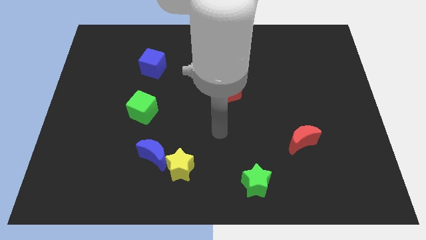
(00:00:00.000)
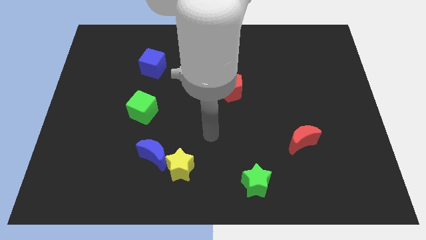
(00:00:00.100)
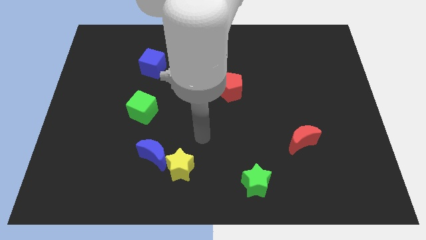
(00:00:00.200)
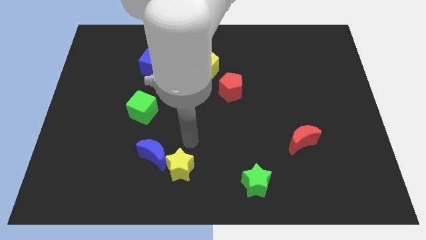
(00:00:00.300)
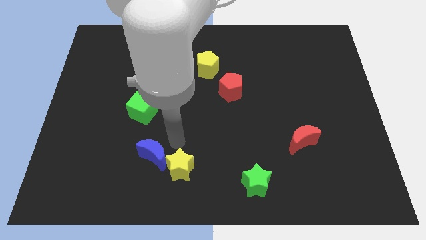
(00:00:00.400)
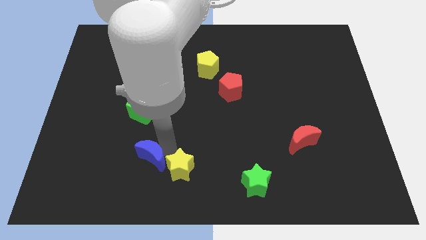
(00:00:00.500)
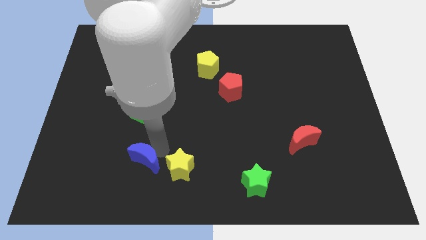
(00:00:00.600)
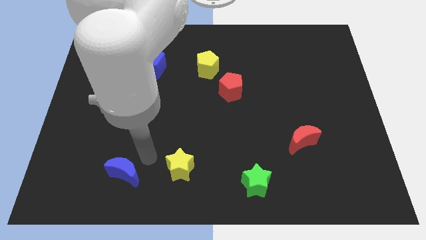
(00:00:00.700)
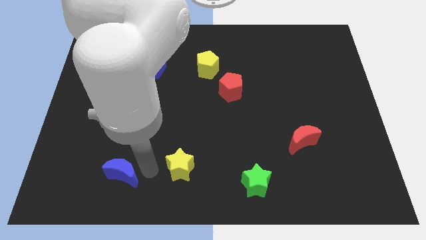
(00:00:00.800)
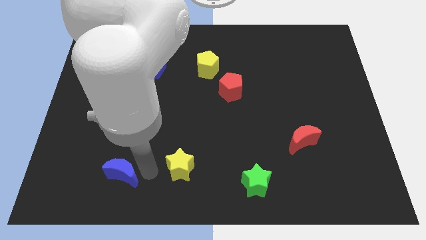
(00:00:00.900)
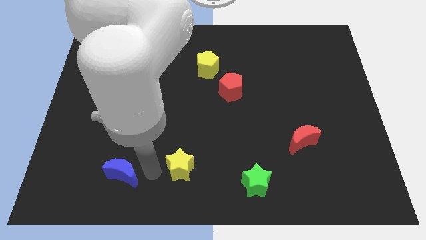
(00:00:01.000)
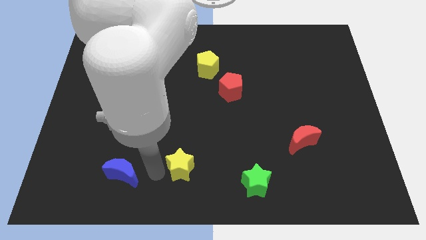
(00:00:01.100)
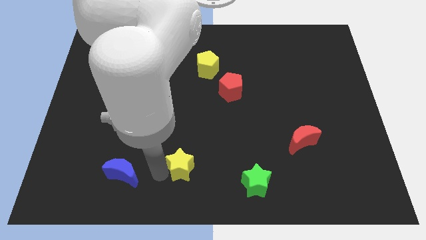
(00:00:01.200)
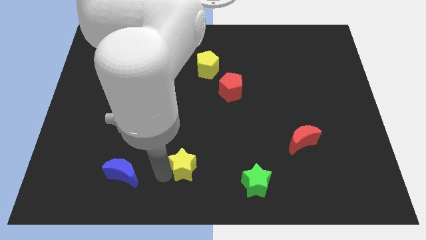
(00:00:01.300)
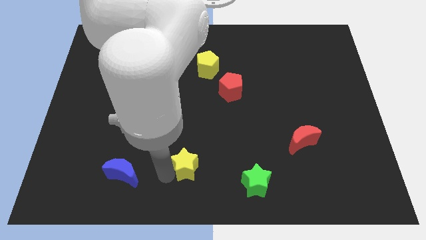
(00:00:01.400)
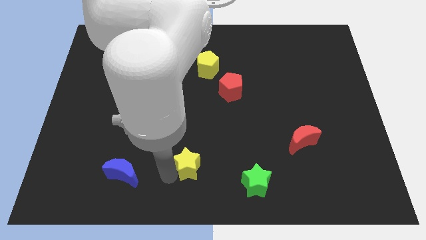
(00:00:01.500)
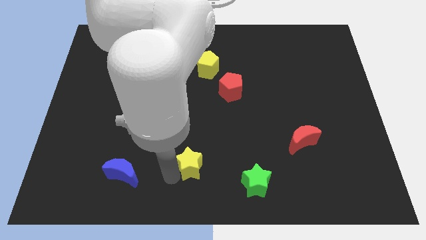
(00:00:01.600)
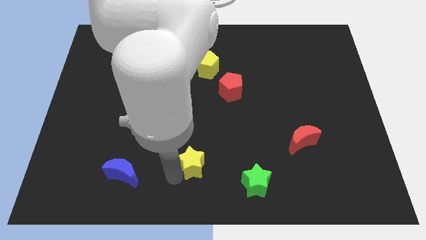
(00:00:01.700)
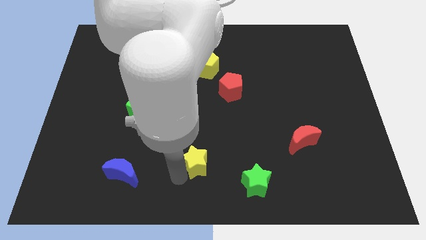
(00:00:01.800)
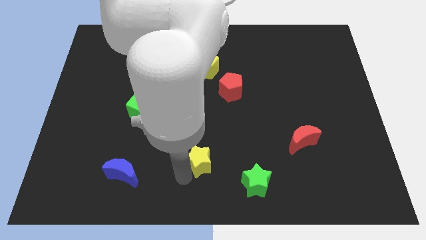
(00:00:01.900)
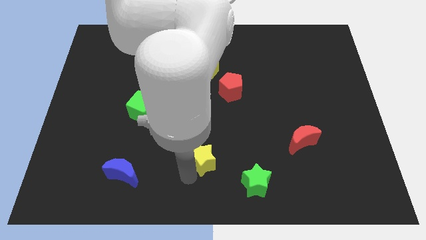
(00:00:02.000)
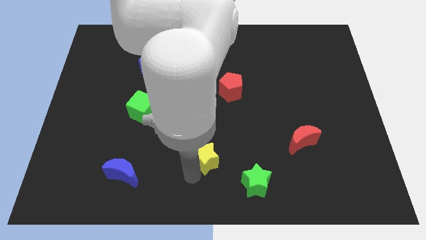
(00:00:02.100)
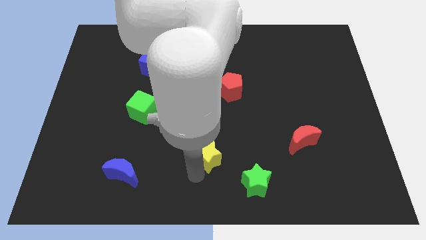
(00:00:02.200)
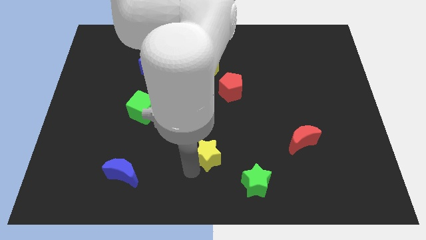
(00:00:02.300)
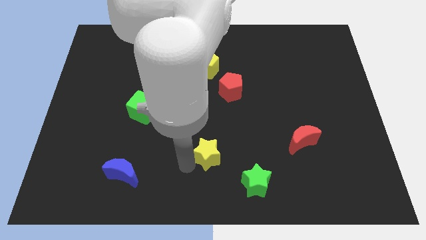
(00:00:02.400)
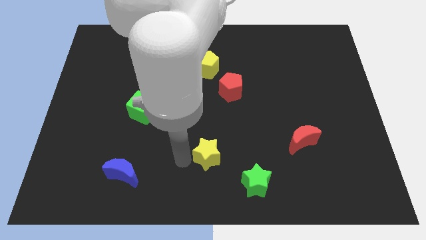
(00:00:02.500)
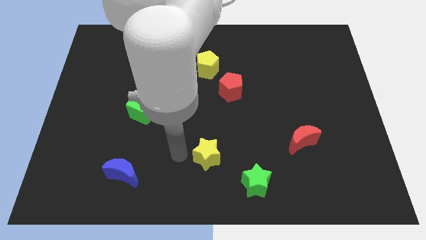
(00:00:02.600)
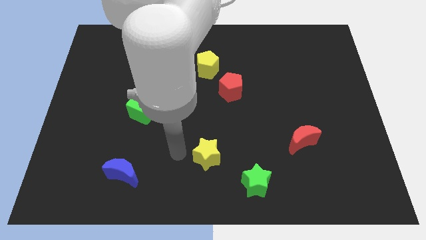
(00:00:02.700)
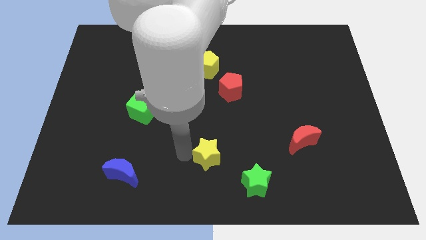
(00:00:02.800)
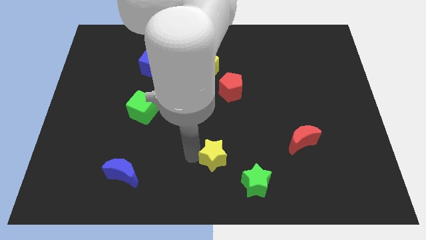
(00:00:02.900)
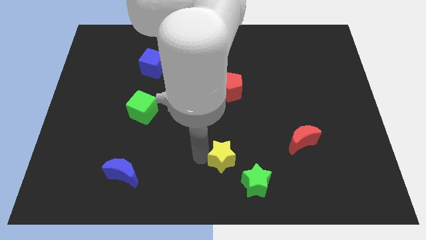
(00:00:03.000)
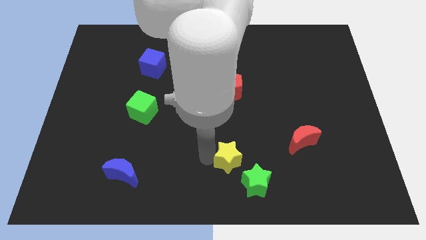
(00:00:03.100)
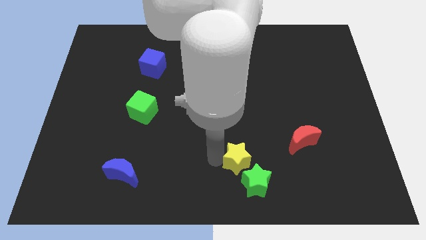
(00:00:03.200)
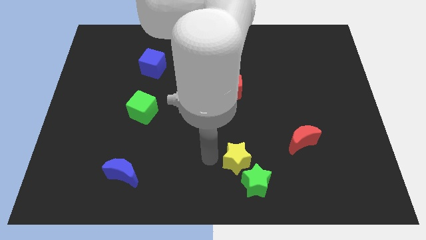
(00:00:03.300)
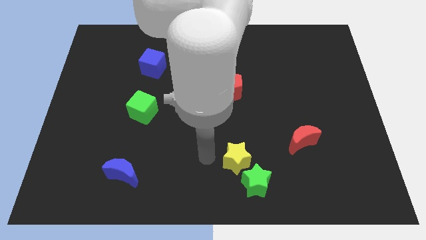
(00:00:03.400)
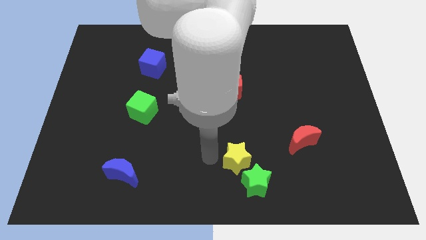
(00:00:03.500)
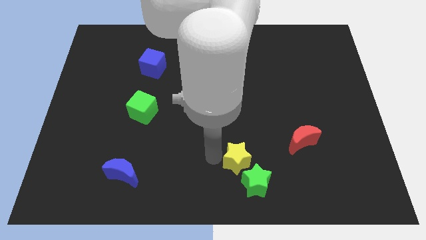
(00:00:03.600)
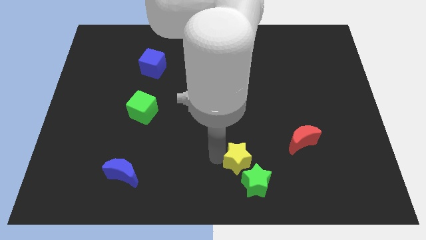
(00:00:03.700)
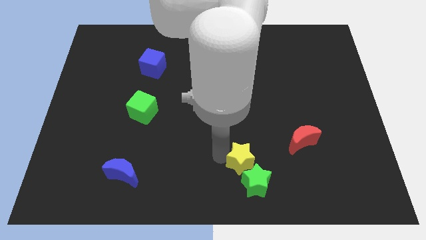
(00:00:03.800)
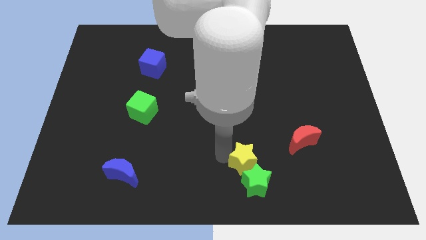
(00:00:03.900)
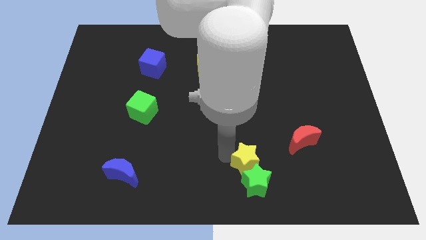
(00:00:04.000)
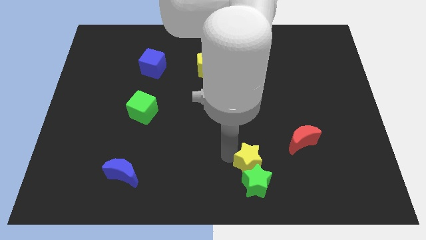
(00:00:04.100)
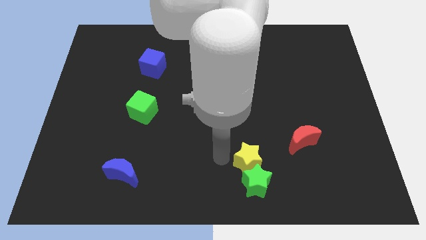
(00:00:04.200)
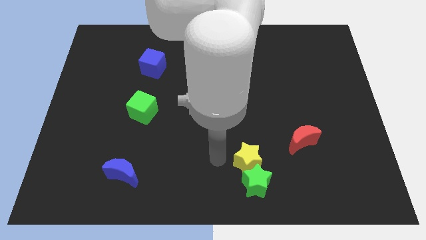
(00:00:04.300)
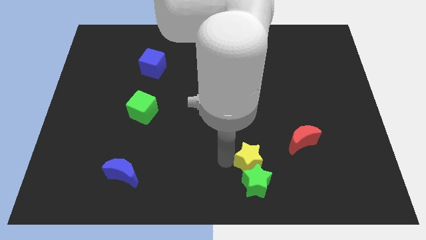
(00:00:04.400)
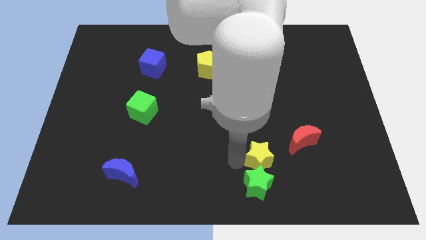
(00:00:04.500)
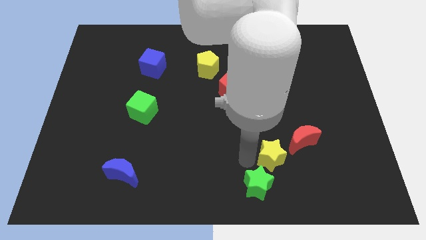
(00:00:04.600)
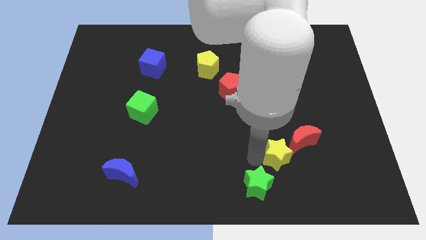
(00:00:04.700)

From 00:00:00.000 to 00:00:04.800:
move the yellow star right

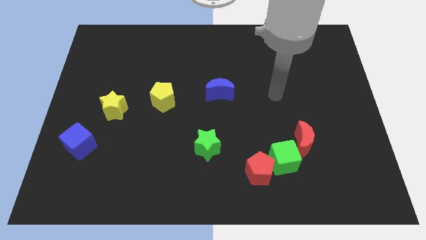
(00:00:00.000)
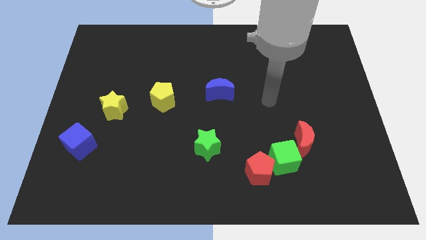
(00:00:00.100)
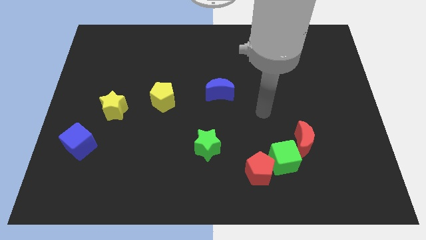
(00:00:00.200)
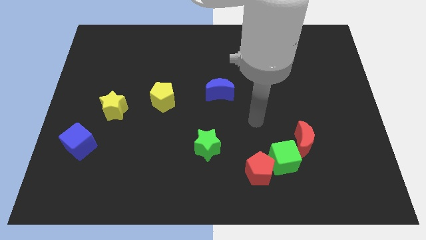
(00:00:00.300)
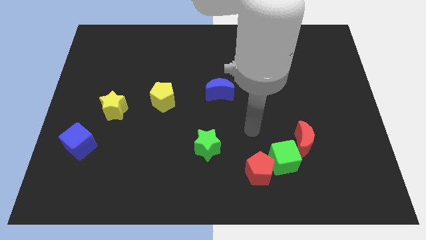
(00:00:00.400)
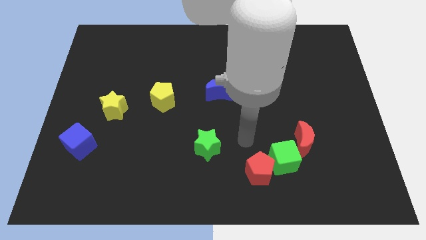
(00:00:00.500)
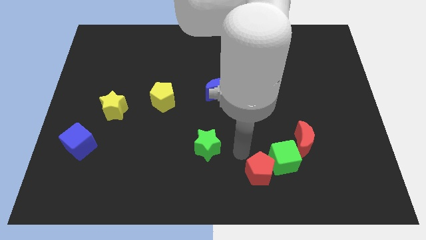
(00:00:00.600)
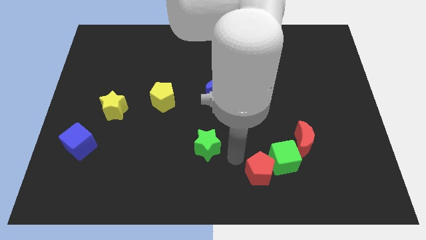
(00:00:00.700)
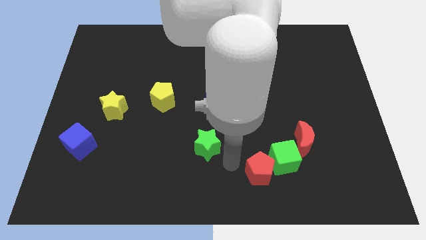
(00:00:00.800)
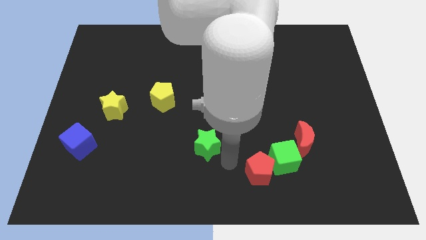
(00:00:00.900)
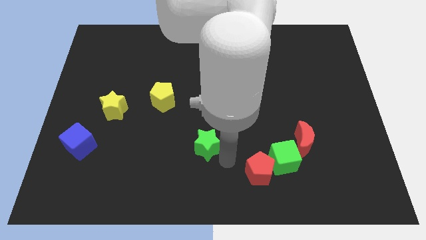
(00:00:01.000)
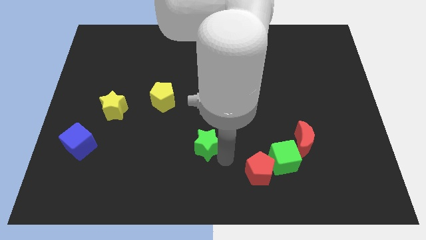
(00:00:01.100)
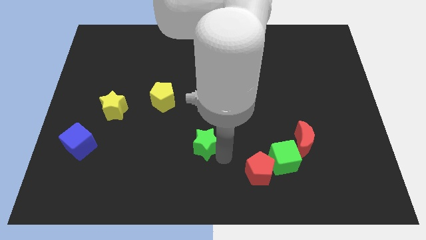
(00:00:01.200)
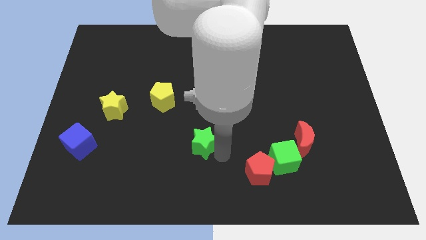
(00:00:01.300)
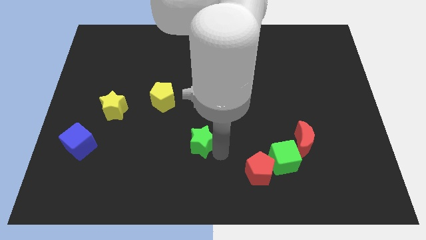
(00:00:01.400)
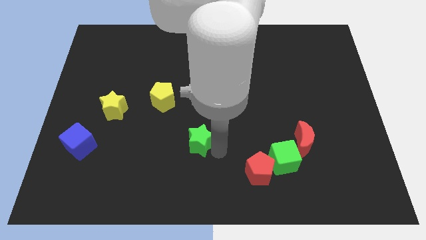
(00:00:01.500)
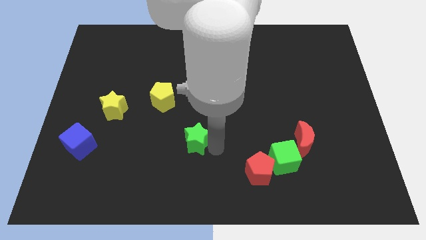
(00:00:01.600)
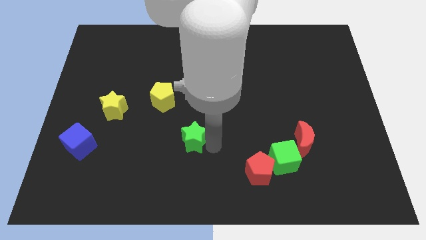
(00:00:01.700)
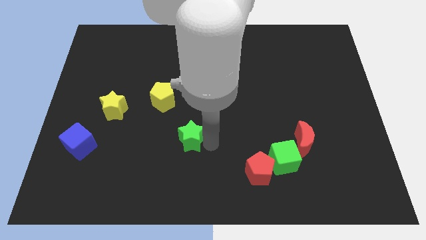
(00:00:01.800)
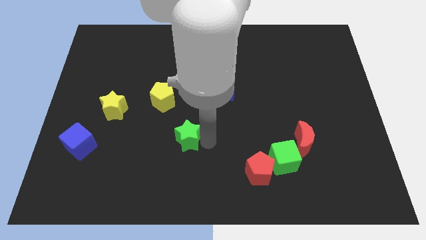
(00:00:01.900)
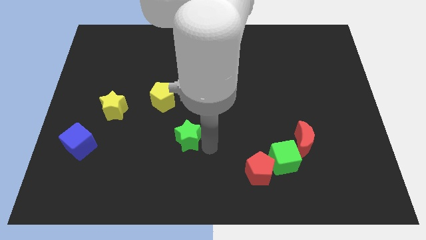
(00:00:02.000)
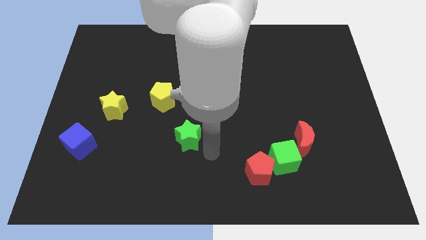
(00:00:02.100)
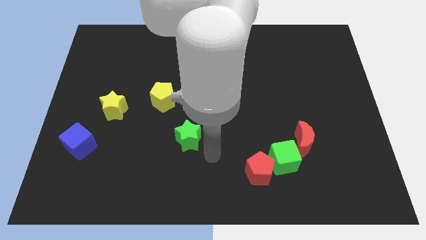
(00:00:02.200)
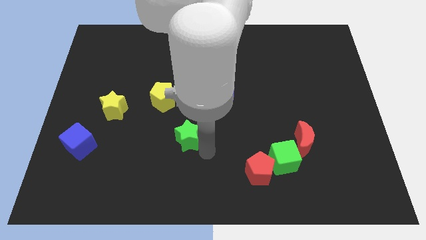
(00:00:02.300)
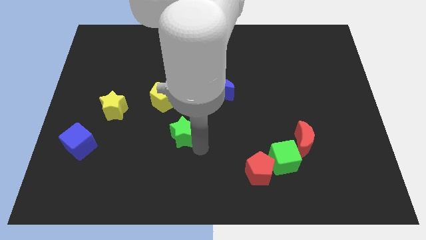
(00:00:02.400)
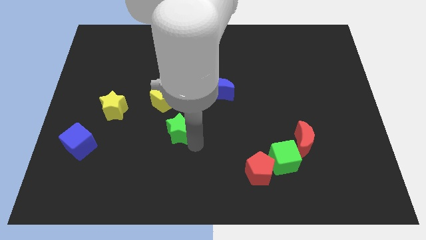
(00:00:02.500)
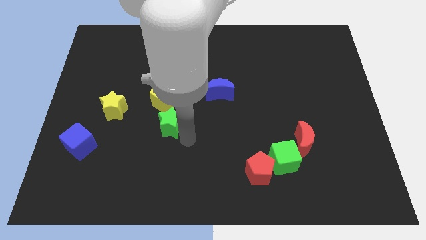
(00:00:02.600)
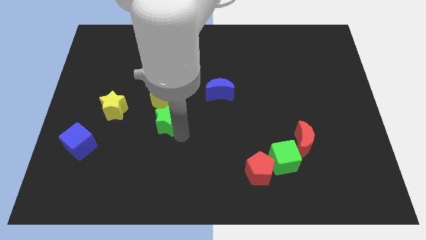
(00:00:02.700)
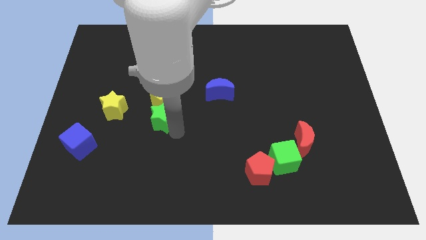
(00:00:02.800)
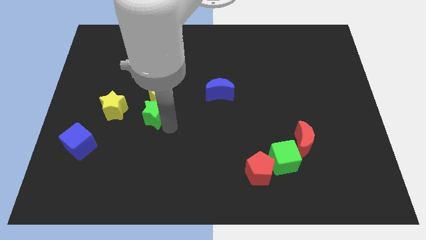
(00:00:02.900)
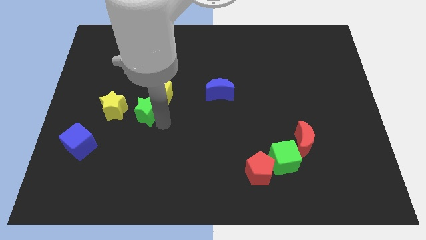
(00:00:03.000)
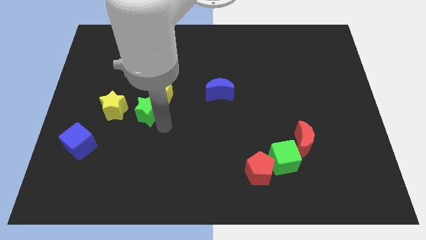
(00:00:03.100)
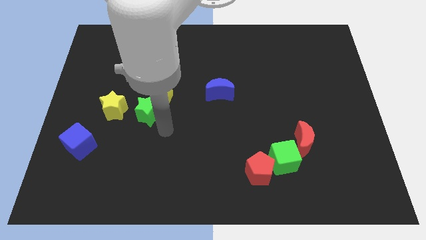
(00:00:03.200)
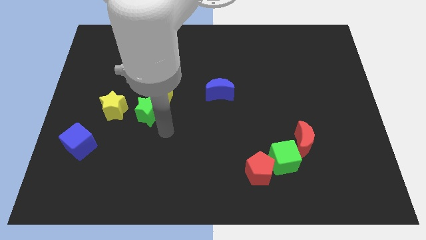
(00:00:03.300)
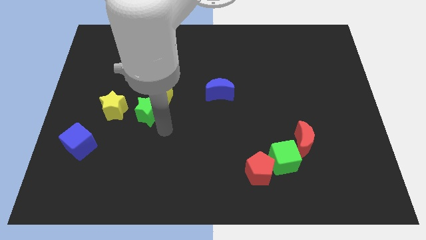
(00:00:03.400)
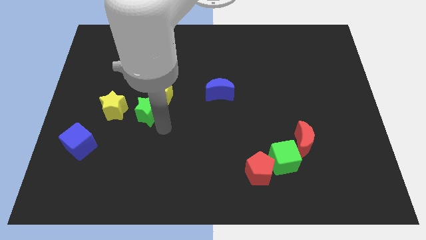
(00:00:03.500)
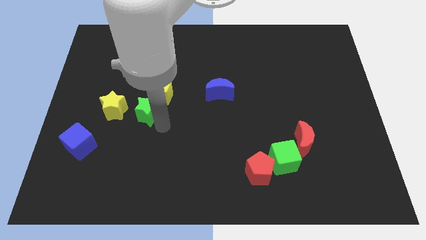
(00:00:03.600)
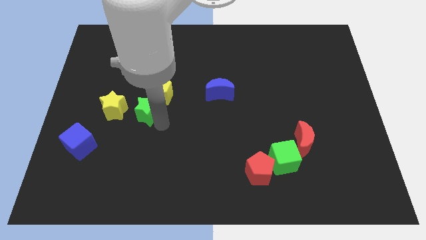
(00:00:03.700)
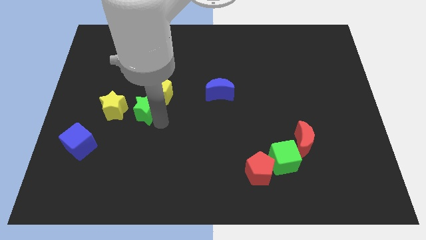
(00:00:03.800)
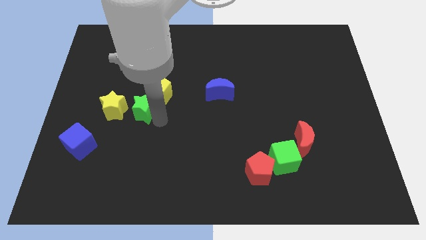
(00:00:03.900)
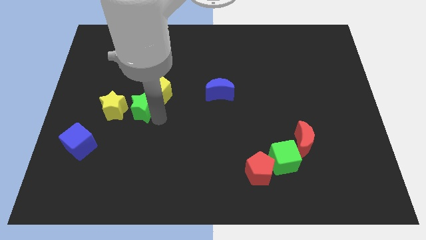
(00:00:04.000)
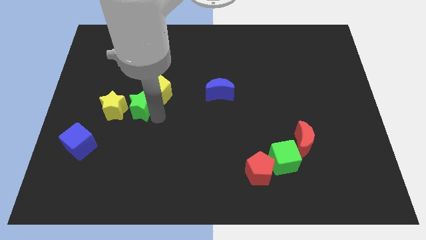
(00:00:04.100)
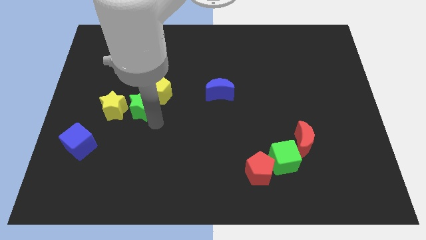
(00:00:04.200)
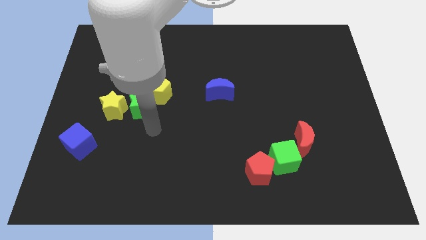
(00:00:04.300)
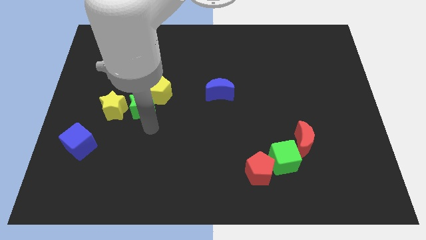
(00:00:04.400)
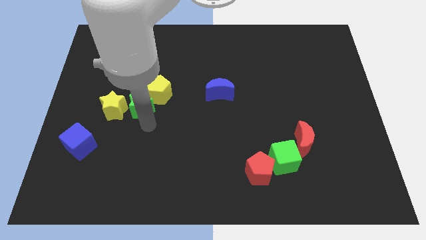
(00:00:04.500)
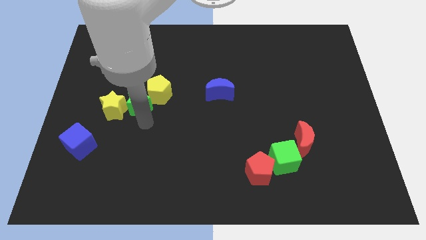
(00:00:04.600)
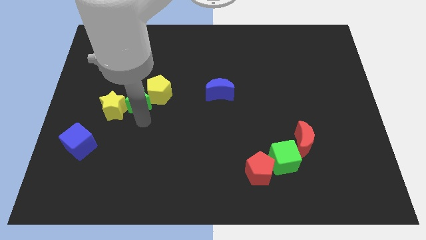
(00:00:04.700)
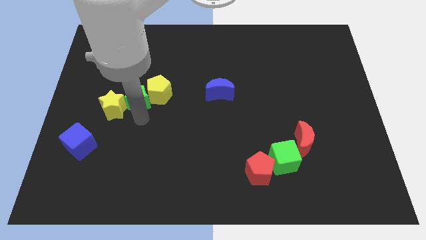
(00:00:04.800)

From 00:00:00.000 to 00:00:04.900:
move the green star up and then to the left
